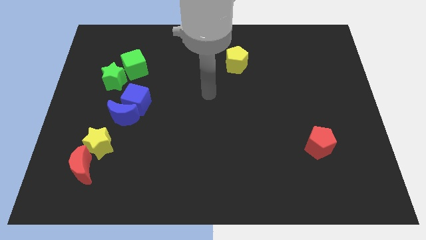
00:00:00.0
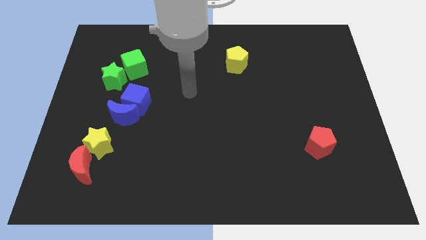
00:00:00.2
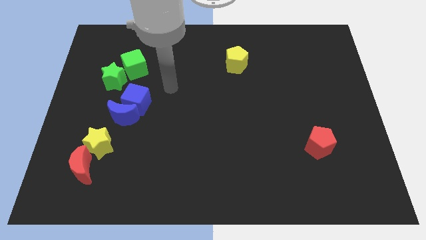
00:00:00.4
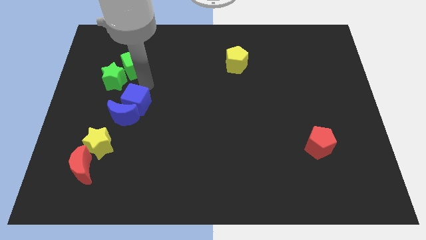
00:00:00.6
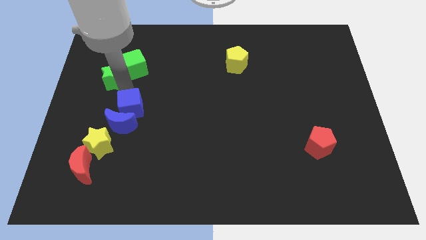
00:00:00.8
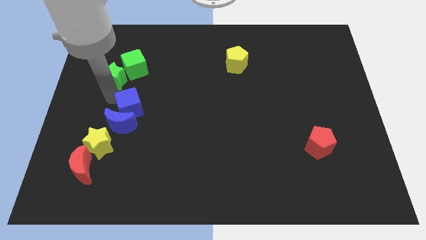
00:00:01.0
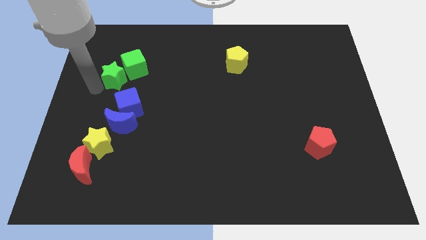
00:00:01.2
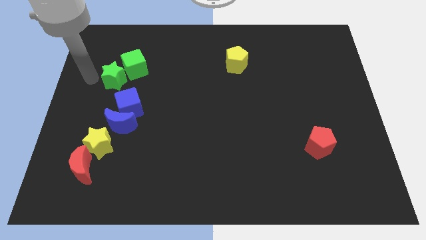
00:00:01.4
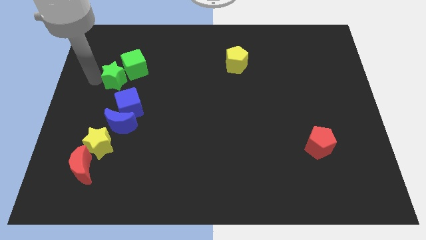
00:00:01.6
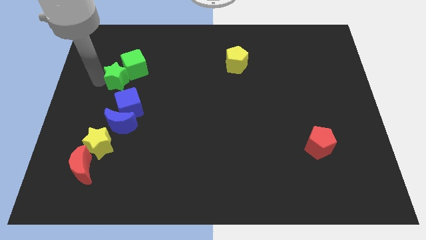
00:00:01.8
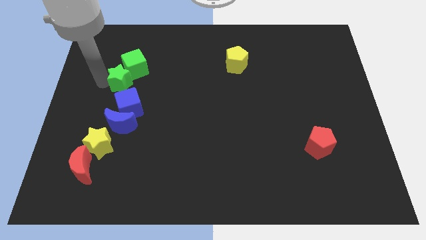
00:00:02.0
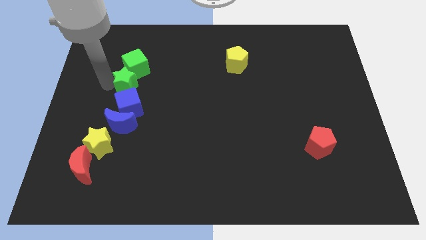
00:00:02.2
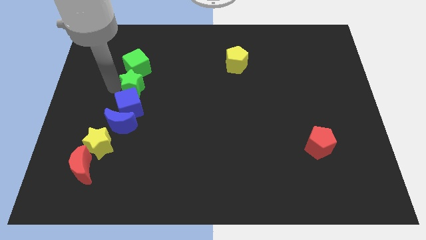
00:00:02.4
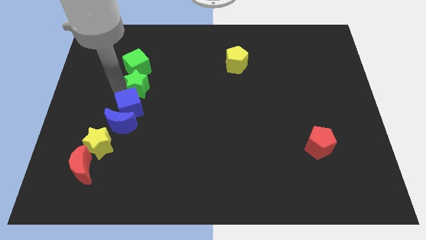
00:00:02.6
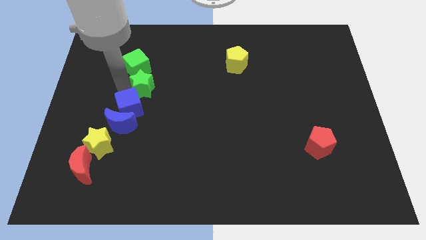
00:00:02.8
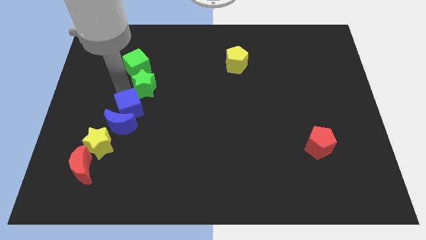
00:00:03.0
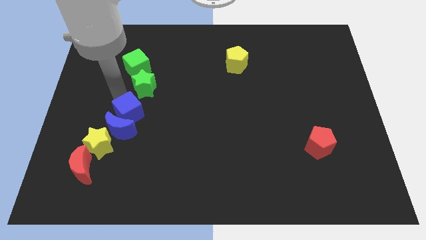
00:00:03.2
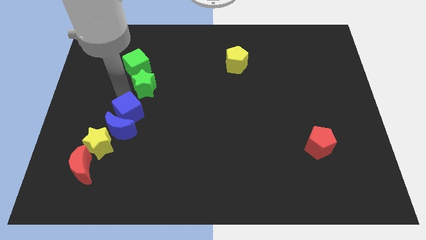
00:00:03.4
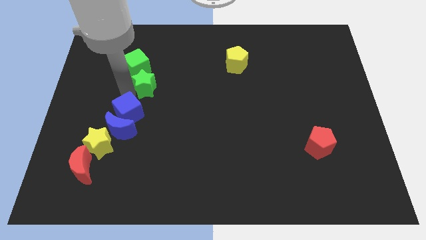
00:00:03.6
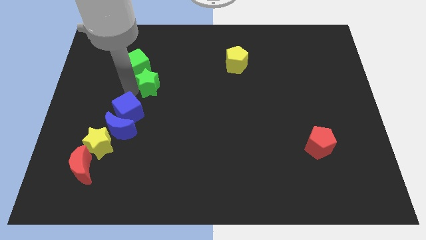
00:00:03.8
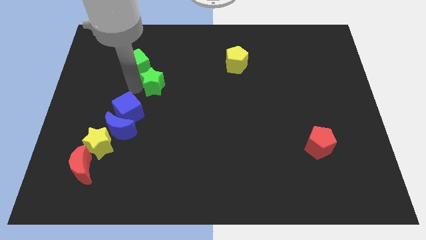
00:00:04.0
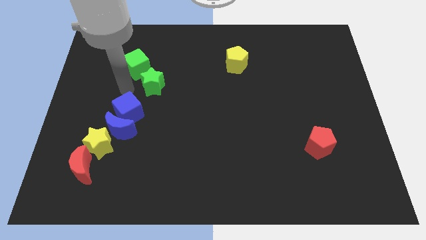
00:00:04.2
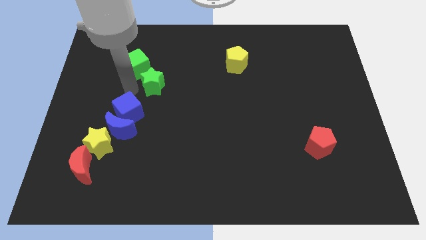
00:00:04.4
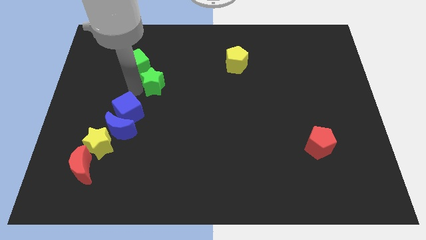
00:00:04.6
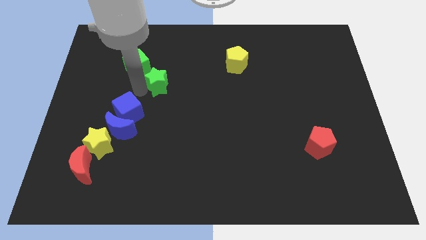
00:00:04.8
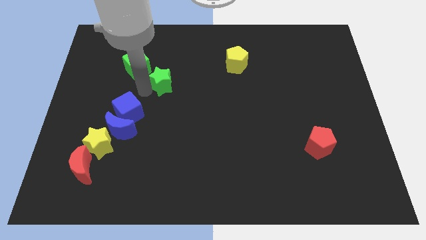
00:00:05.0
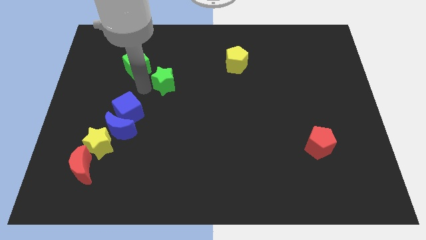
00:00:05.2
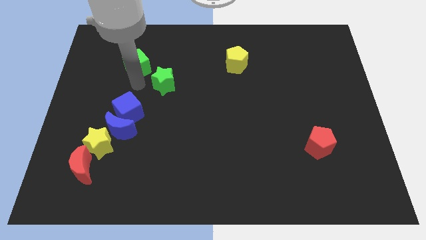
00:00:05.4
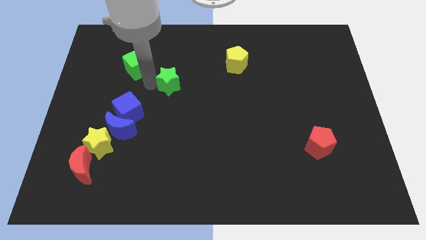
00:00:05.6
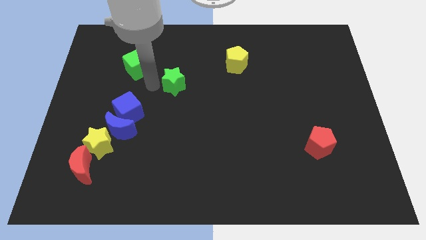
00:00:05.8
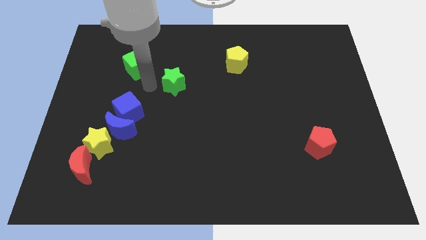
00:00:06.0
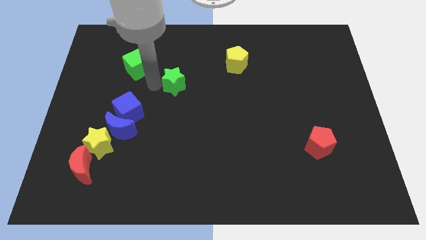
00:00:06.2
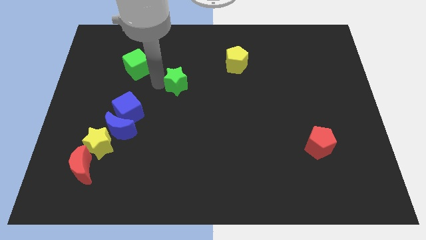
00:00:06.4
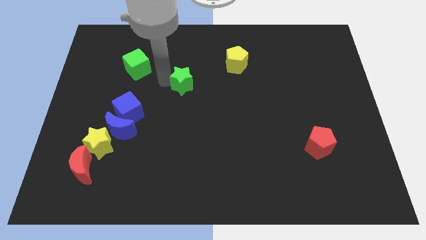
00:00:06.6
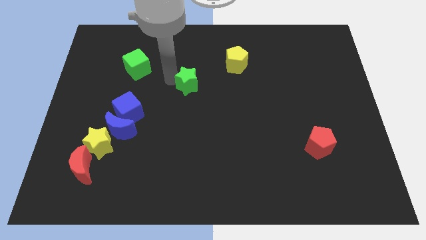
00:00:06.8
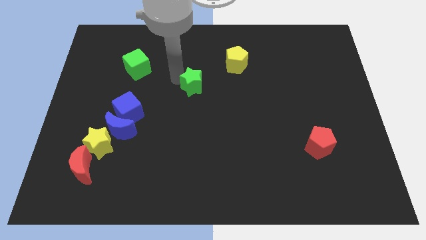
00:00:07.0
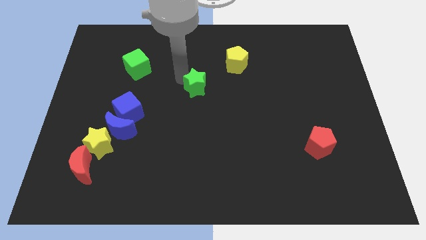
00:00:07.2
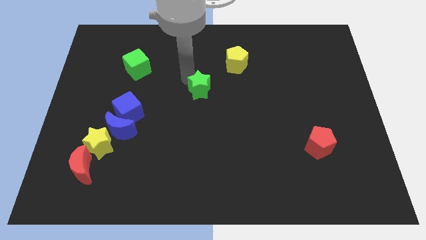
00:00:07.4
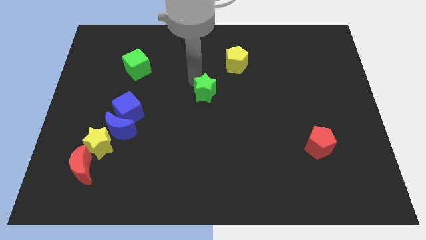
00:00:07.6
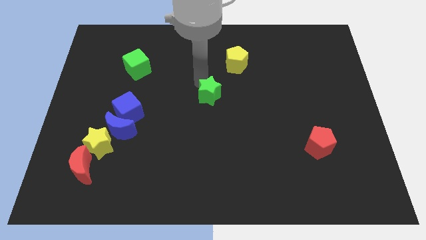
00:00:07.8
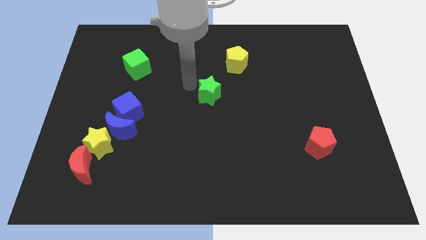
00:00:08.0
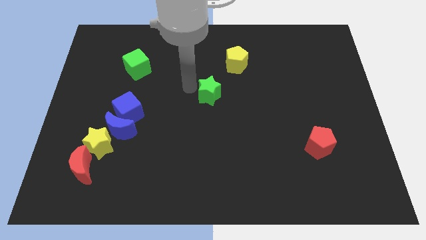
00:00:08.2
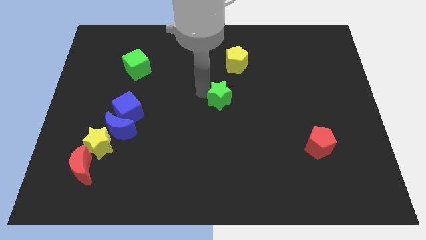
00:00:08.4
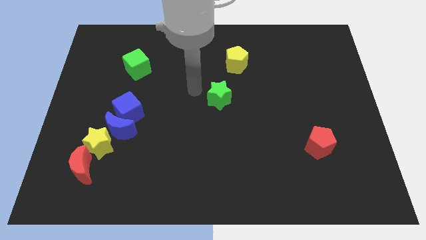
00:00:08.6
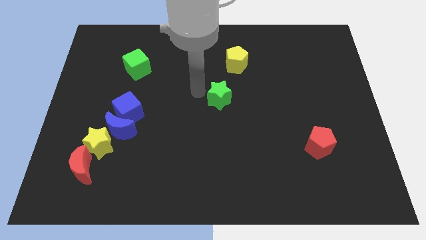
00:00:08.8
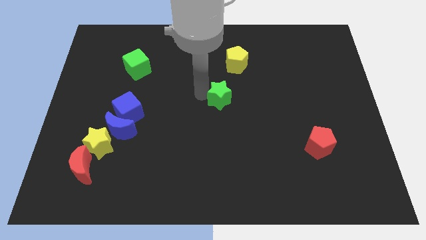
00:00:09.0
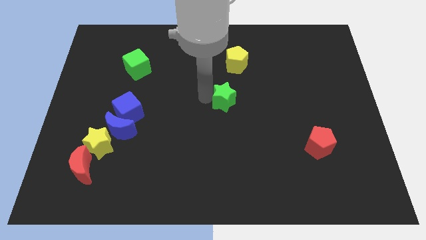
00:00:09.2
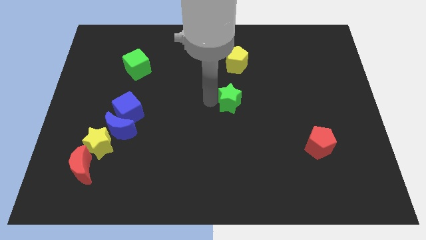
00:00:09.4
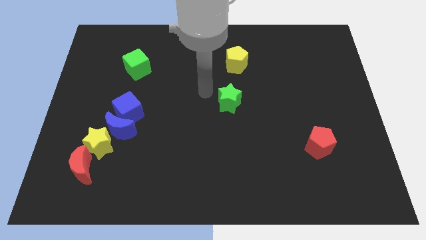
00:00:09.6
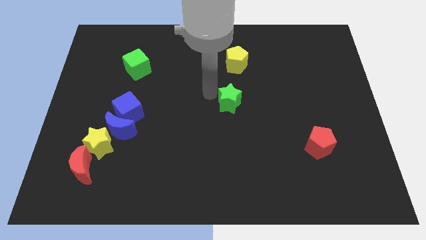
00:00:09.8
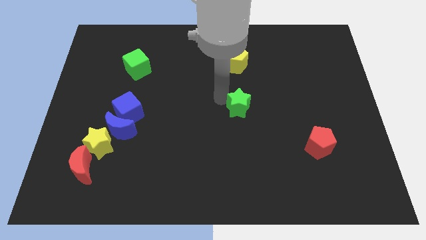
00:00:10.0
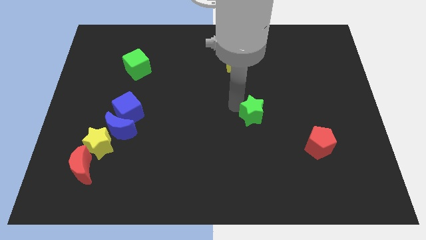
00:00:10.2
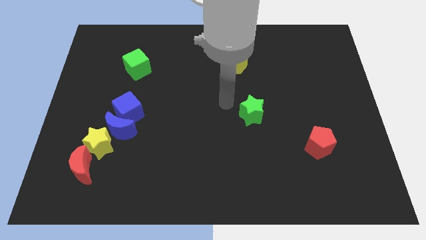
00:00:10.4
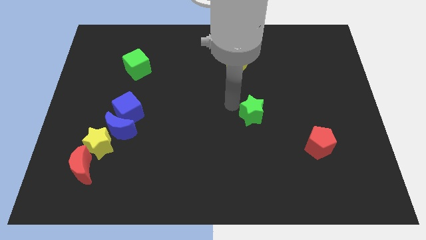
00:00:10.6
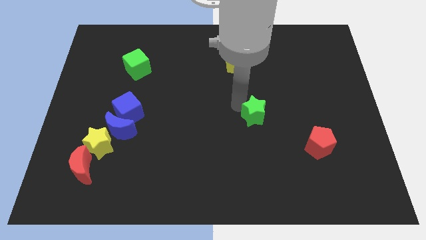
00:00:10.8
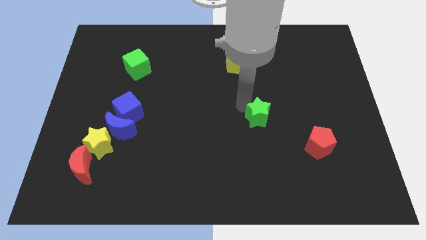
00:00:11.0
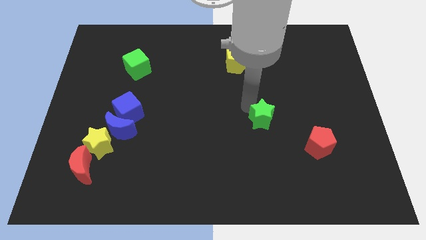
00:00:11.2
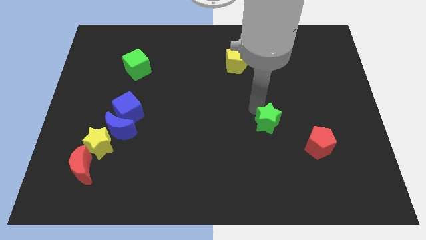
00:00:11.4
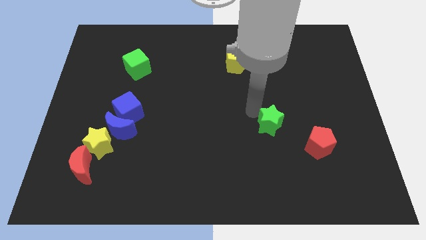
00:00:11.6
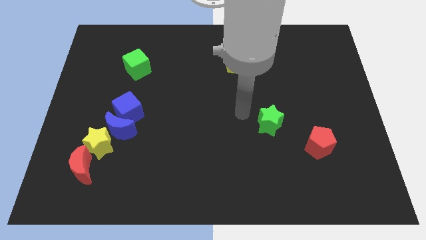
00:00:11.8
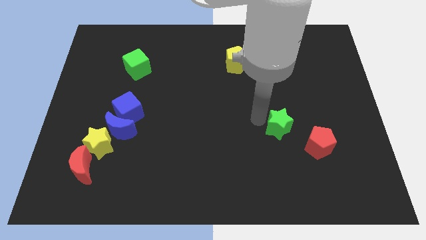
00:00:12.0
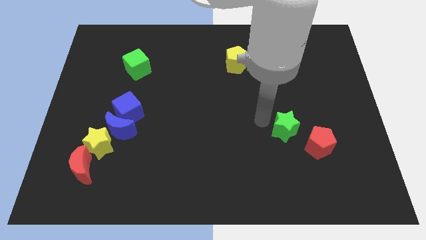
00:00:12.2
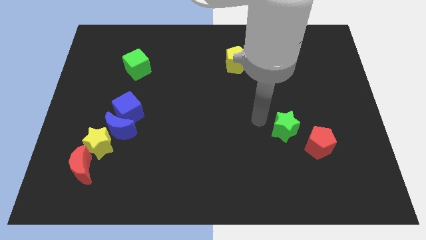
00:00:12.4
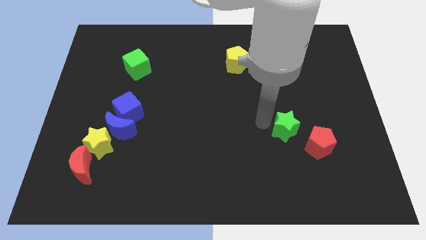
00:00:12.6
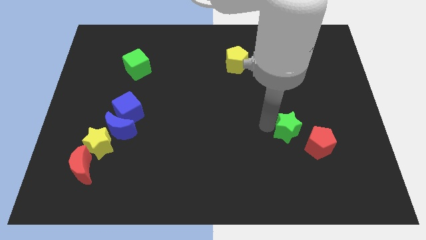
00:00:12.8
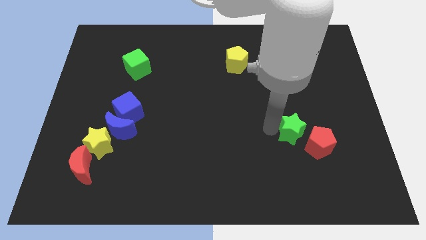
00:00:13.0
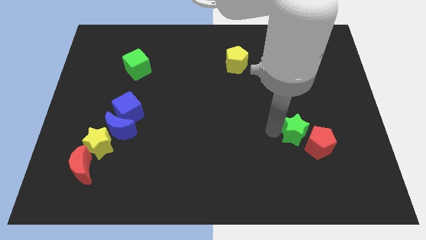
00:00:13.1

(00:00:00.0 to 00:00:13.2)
move the green star close to the red pentagon

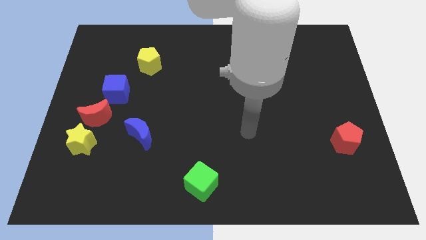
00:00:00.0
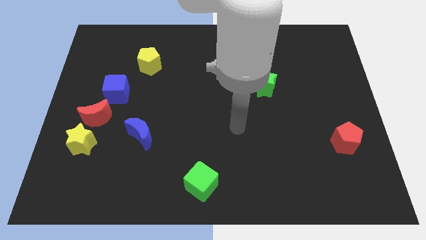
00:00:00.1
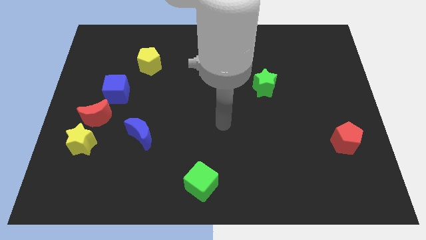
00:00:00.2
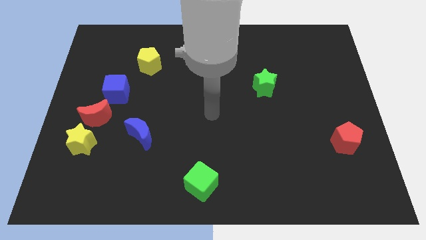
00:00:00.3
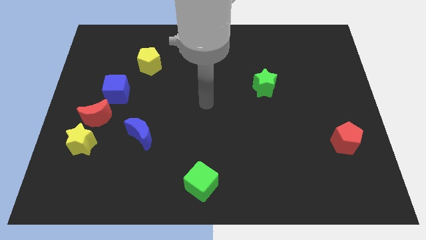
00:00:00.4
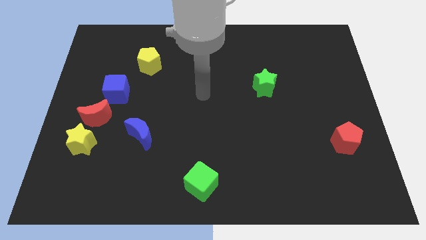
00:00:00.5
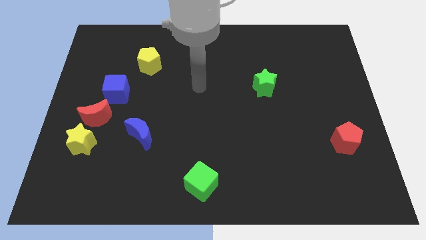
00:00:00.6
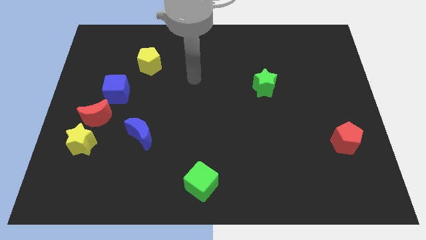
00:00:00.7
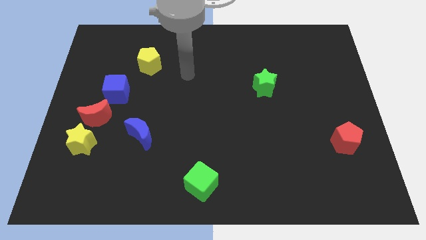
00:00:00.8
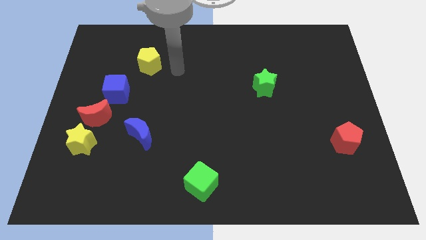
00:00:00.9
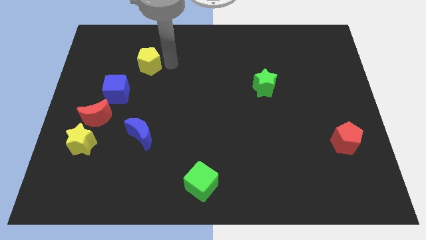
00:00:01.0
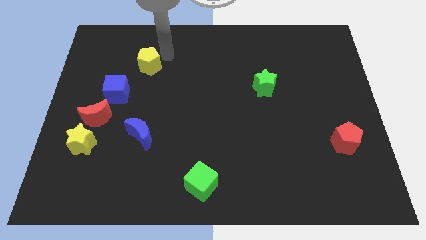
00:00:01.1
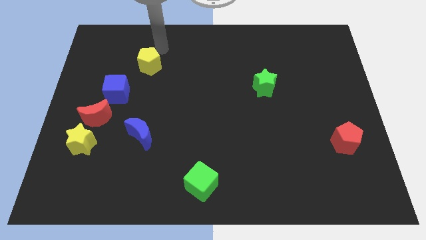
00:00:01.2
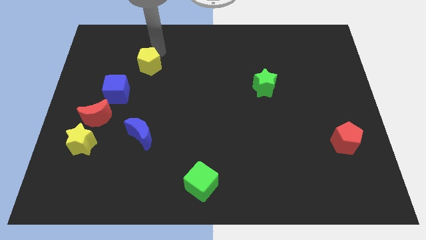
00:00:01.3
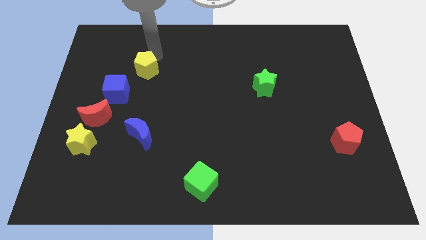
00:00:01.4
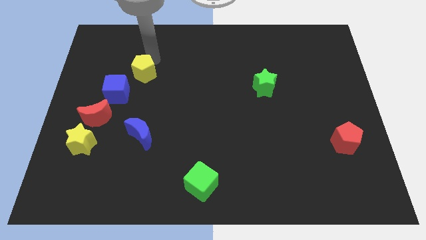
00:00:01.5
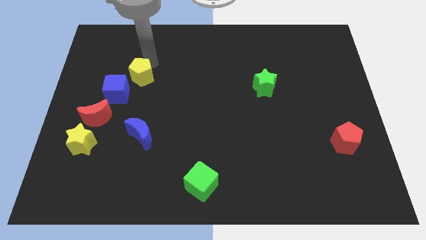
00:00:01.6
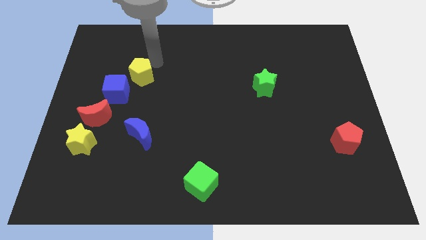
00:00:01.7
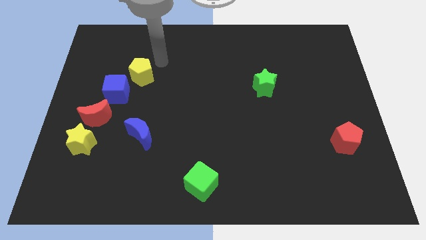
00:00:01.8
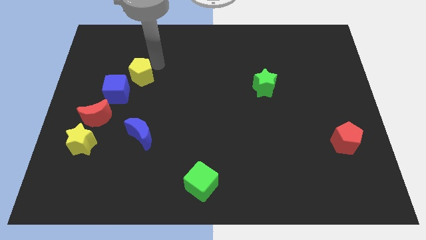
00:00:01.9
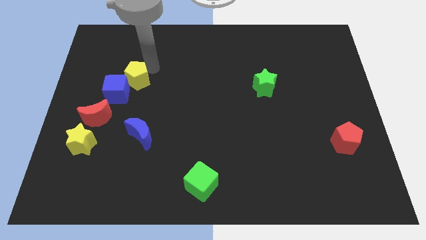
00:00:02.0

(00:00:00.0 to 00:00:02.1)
put the yellow pentagon next to the blue cube
